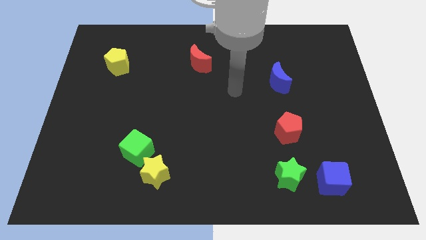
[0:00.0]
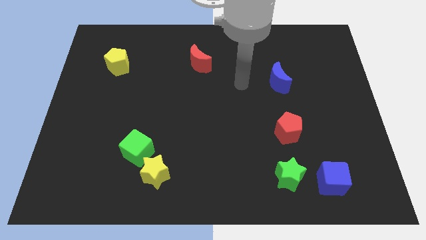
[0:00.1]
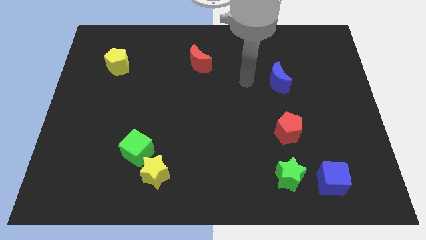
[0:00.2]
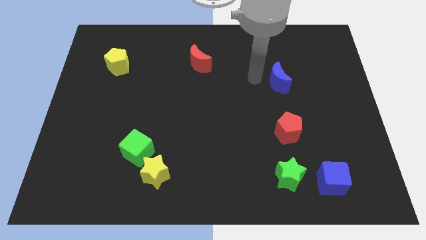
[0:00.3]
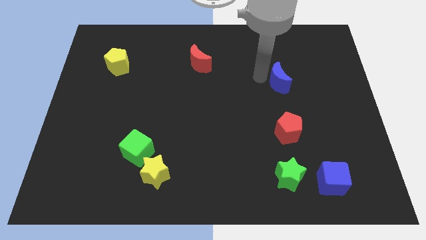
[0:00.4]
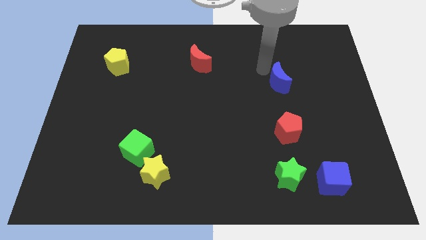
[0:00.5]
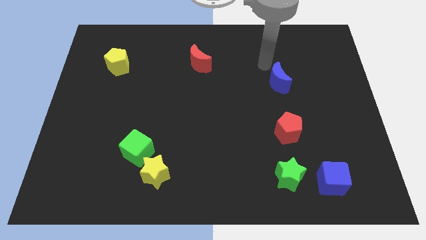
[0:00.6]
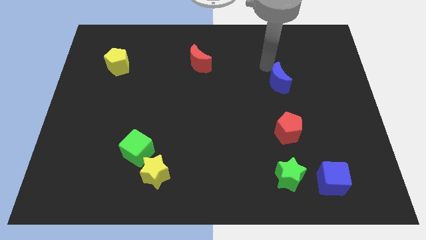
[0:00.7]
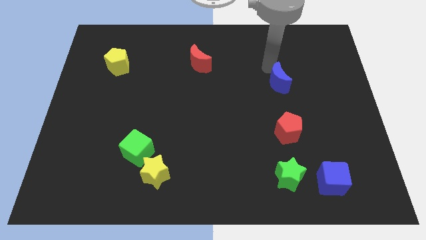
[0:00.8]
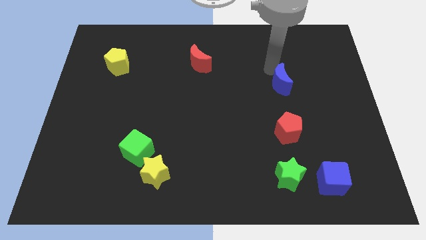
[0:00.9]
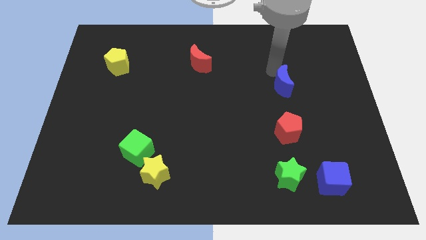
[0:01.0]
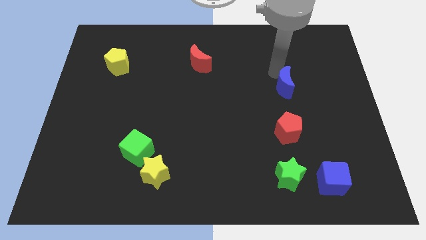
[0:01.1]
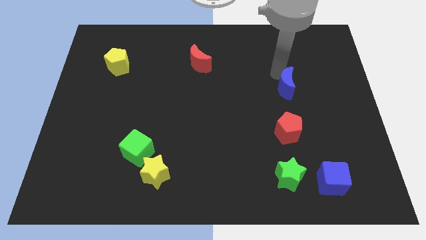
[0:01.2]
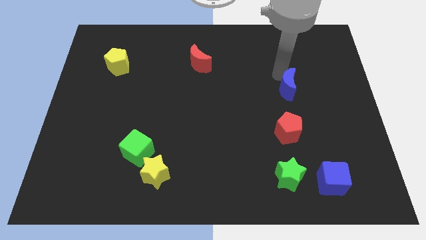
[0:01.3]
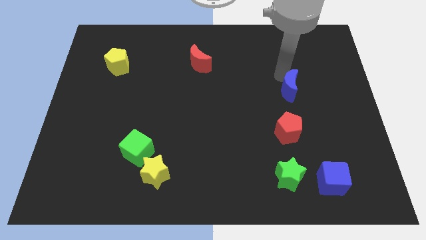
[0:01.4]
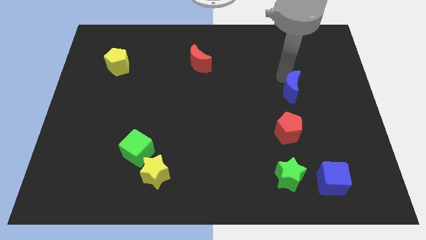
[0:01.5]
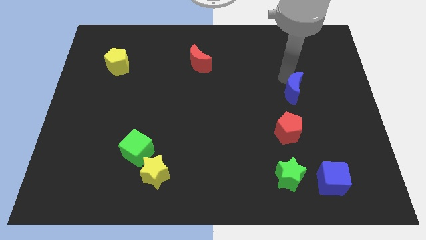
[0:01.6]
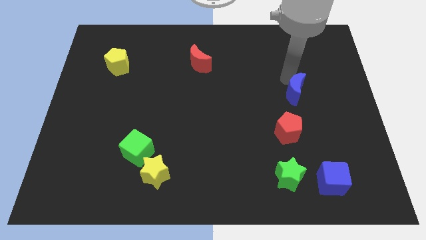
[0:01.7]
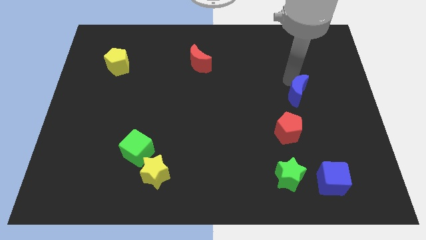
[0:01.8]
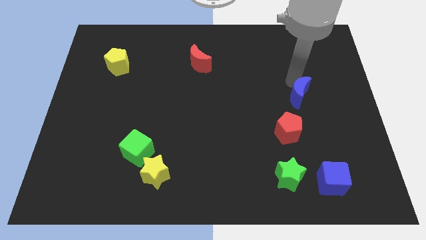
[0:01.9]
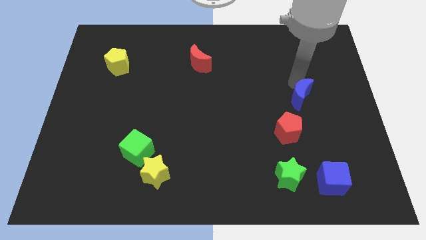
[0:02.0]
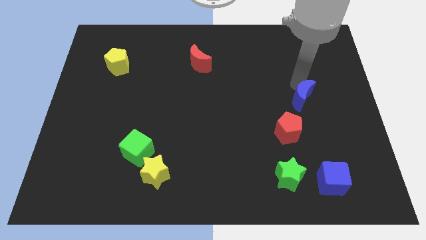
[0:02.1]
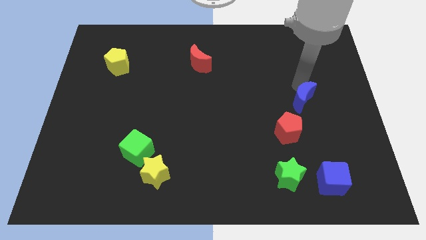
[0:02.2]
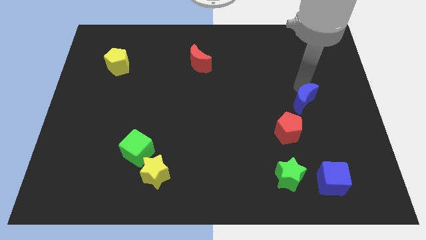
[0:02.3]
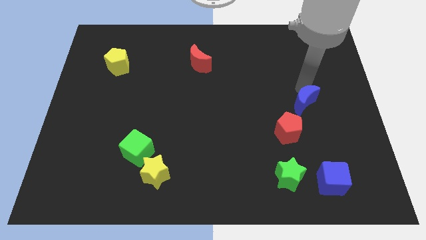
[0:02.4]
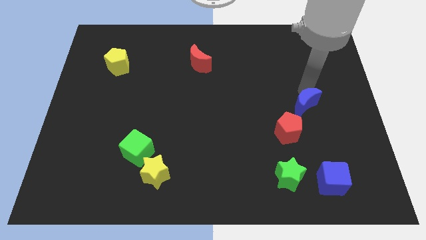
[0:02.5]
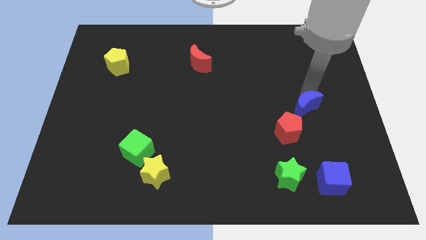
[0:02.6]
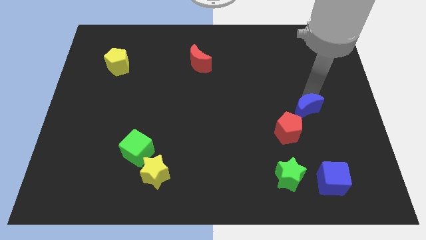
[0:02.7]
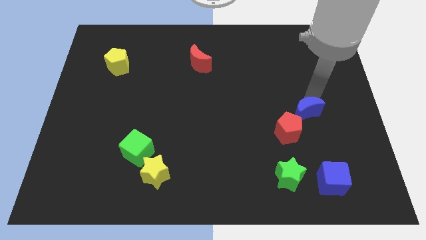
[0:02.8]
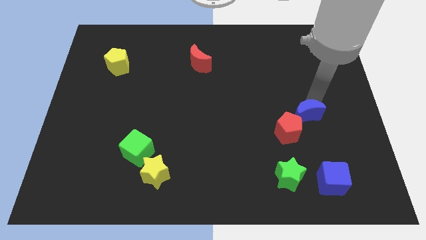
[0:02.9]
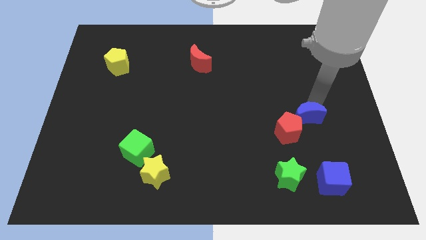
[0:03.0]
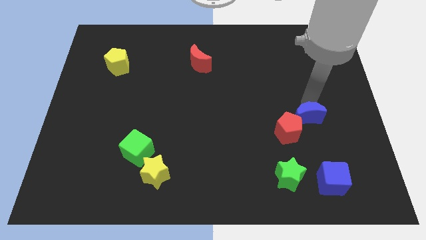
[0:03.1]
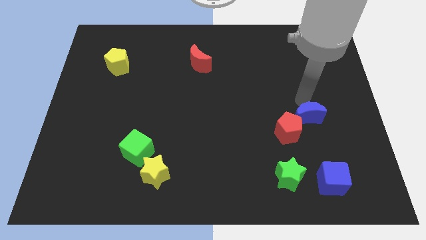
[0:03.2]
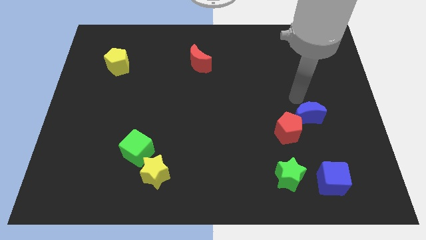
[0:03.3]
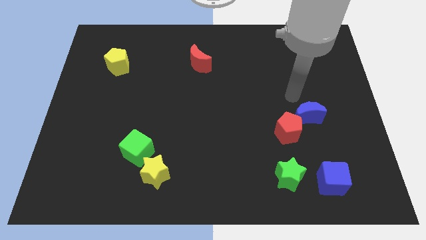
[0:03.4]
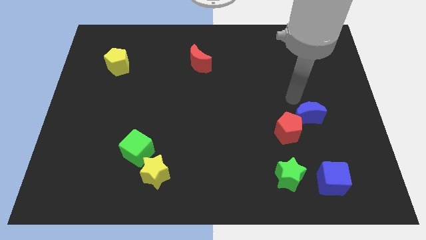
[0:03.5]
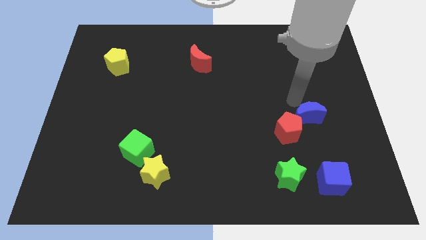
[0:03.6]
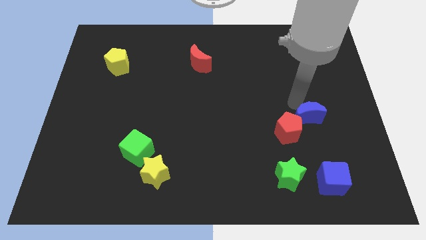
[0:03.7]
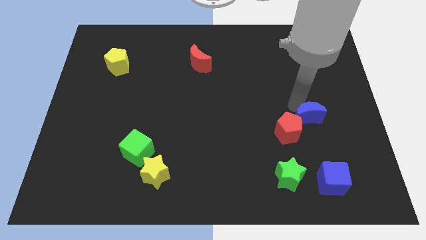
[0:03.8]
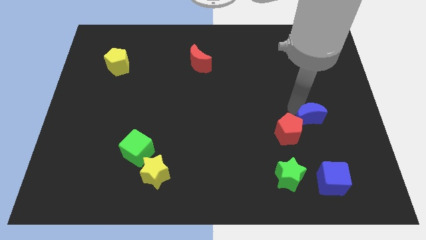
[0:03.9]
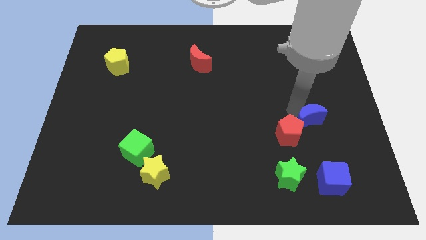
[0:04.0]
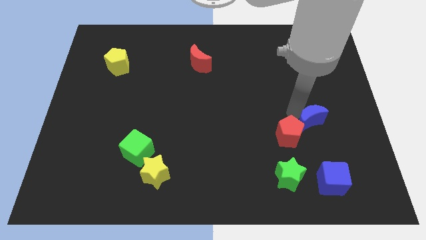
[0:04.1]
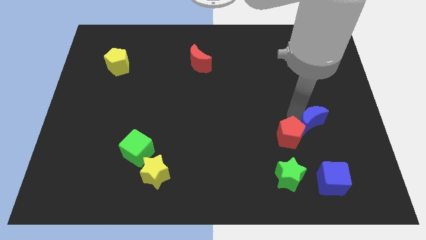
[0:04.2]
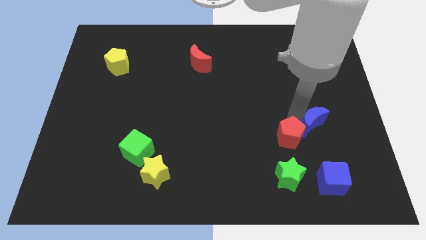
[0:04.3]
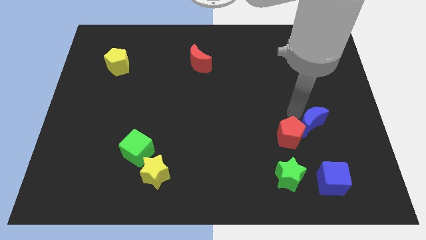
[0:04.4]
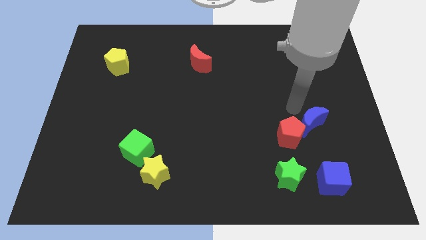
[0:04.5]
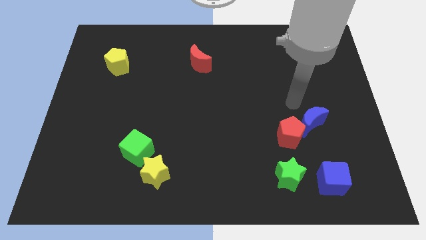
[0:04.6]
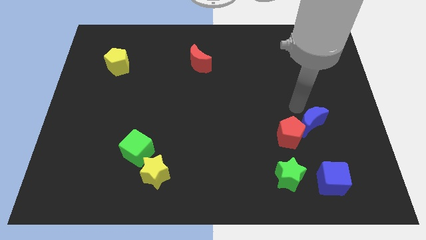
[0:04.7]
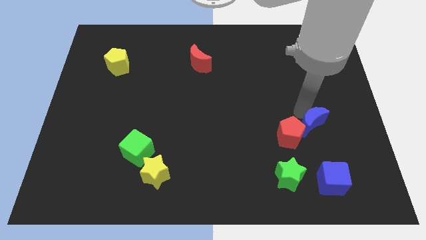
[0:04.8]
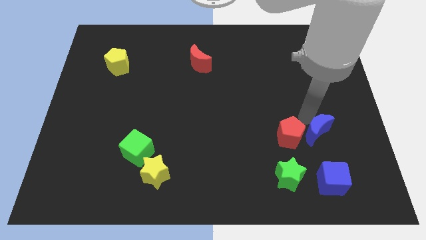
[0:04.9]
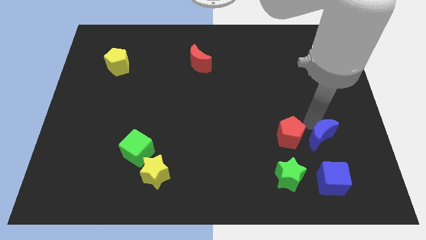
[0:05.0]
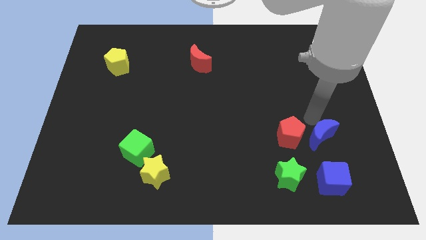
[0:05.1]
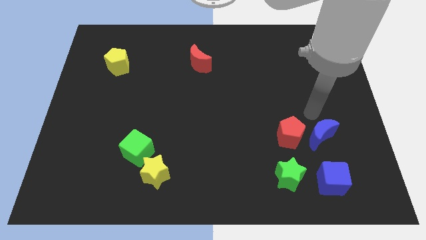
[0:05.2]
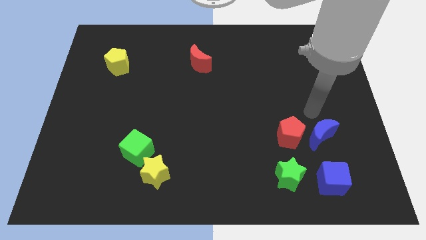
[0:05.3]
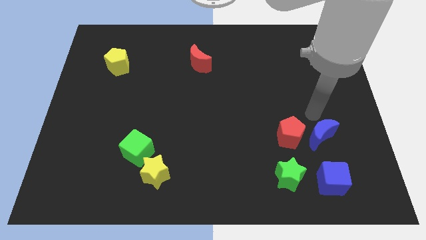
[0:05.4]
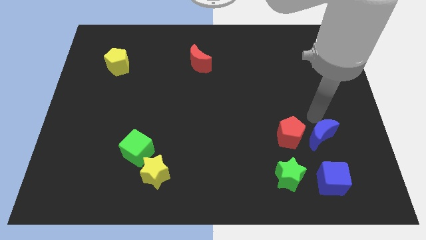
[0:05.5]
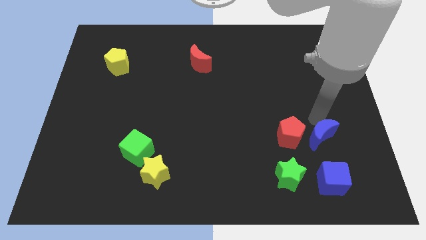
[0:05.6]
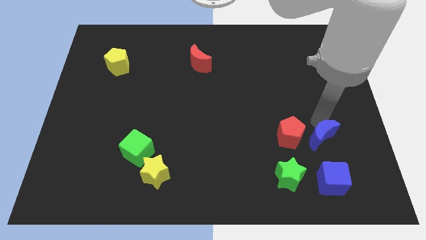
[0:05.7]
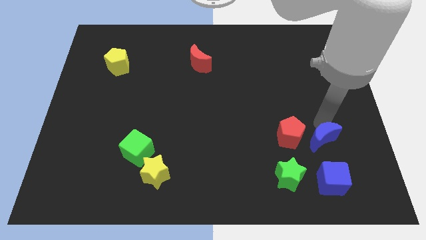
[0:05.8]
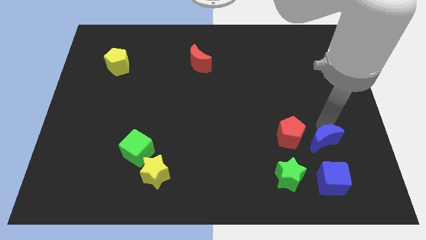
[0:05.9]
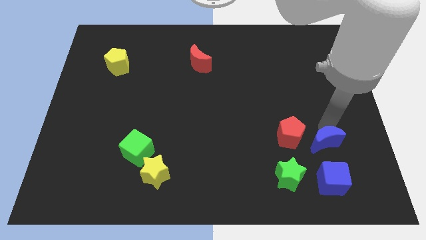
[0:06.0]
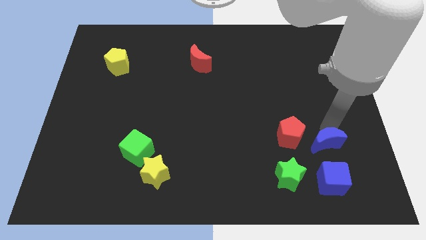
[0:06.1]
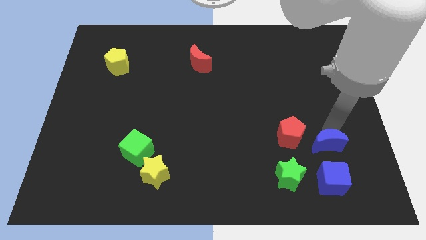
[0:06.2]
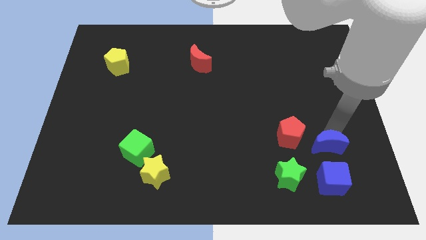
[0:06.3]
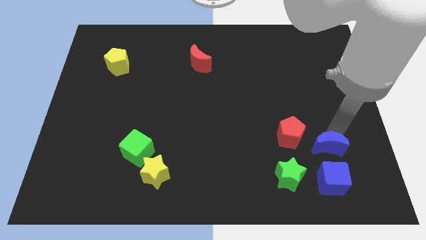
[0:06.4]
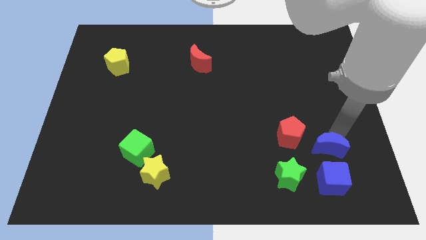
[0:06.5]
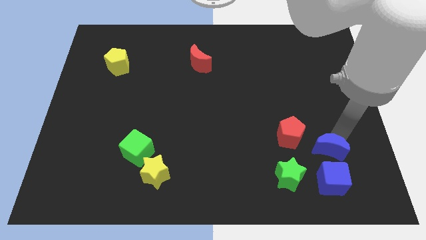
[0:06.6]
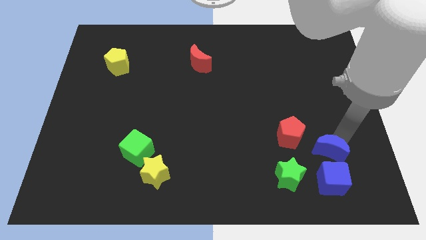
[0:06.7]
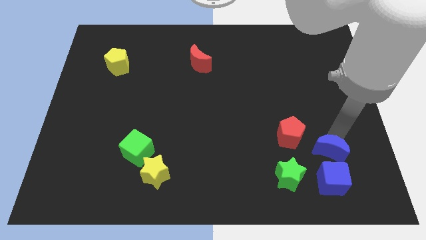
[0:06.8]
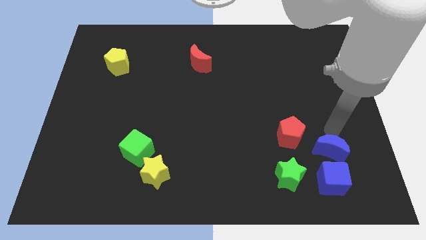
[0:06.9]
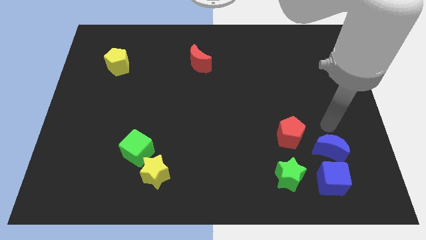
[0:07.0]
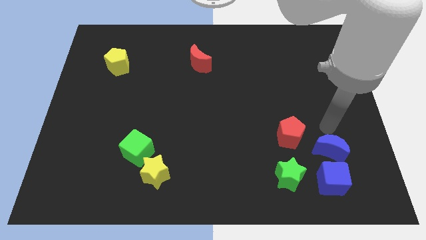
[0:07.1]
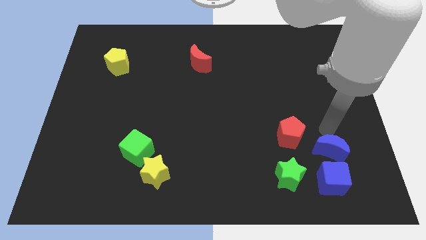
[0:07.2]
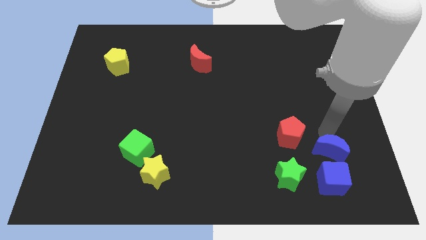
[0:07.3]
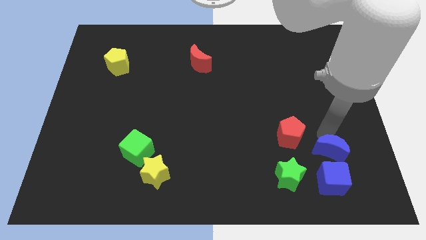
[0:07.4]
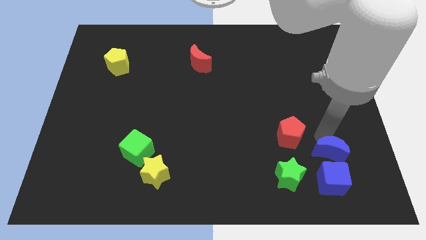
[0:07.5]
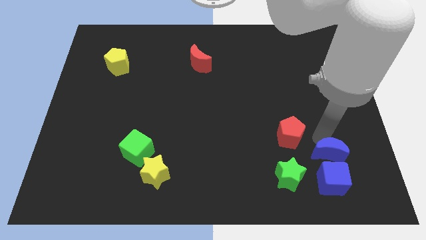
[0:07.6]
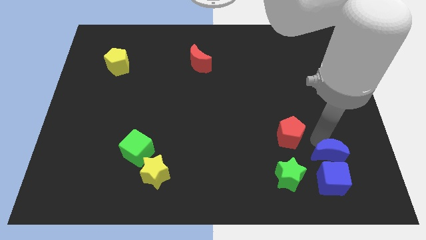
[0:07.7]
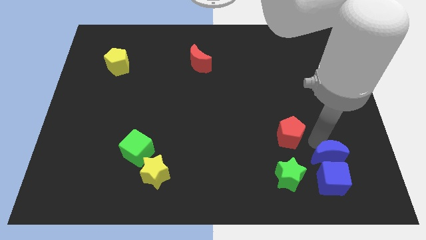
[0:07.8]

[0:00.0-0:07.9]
put the blue moon close to the blue cube
